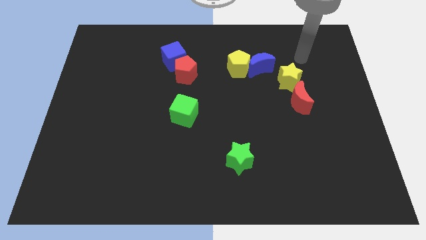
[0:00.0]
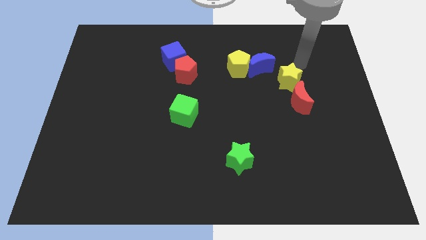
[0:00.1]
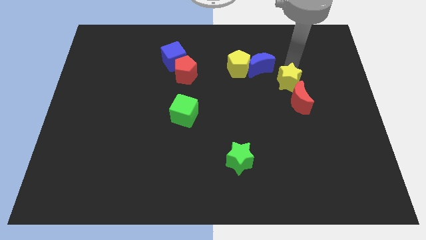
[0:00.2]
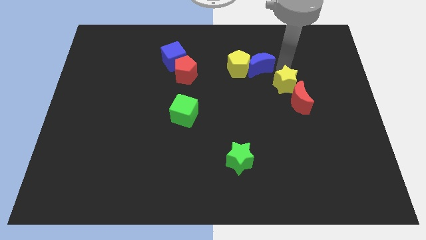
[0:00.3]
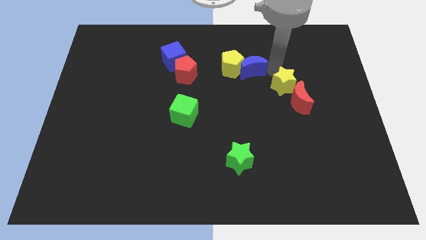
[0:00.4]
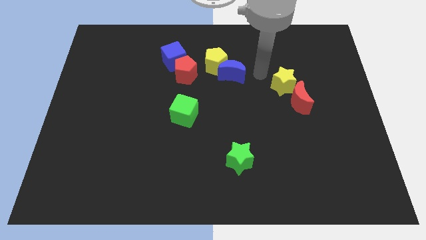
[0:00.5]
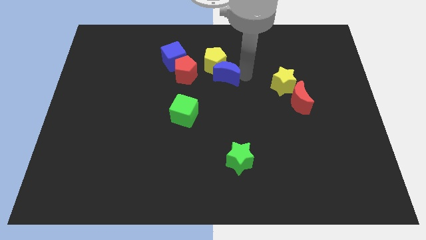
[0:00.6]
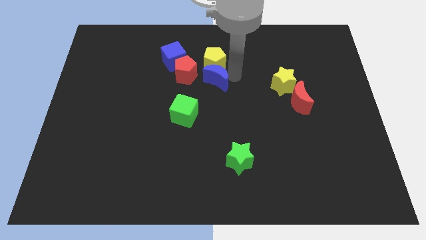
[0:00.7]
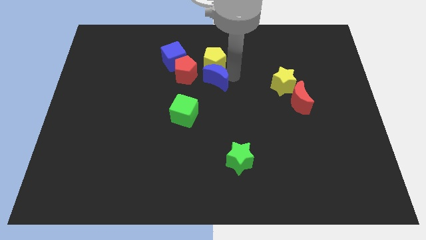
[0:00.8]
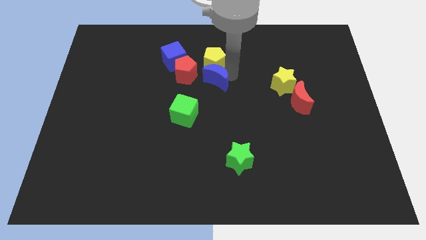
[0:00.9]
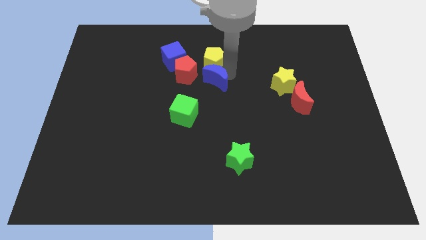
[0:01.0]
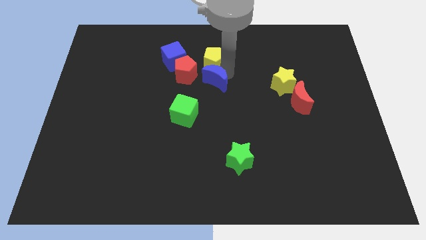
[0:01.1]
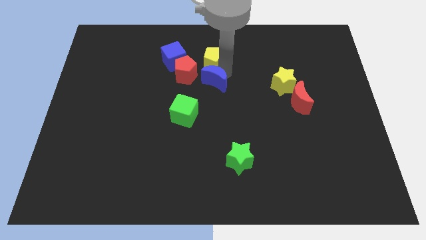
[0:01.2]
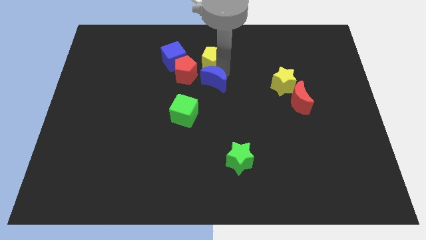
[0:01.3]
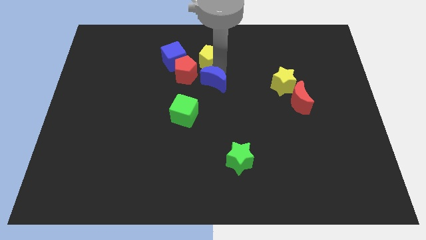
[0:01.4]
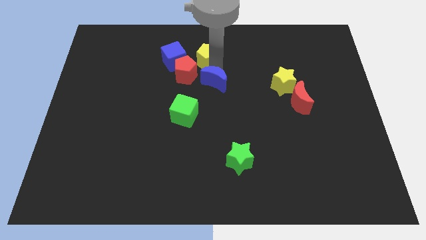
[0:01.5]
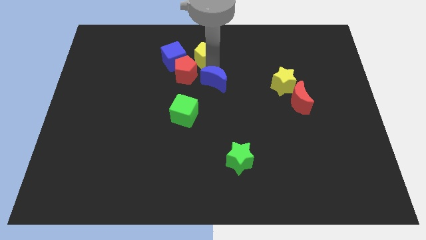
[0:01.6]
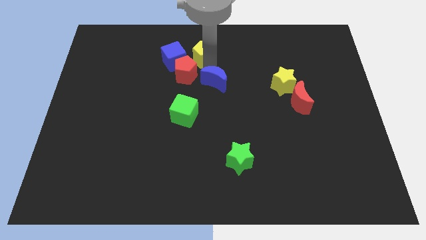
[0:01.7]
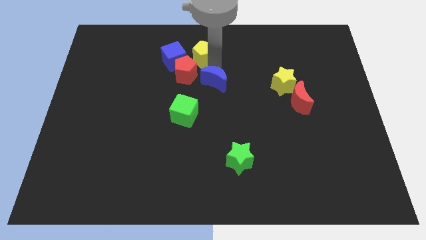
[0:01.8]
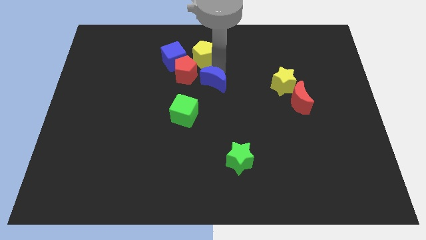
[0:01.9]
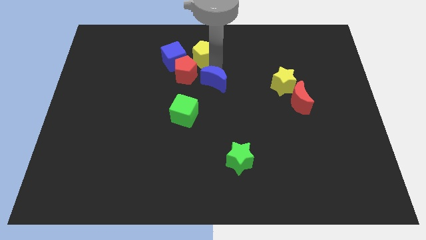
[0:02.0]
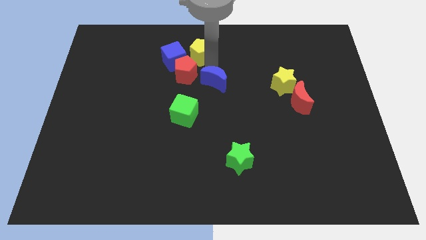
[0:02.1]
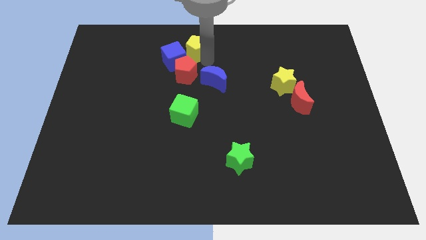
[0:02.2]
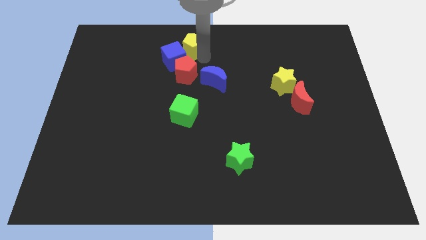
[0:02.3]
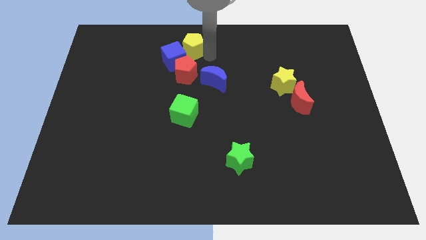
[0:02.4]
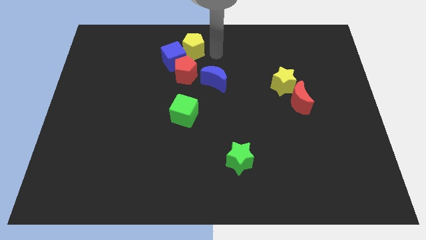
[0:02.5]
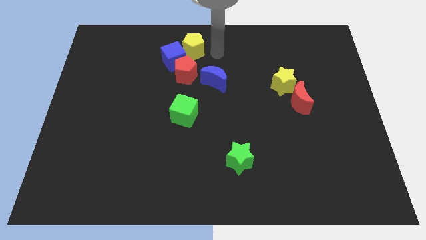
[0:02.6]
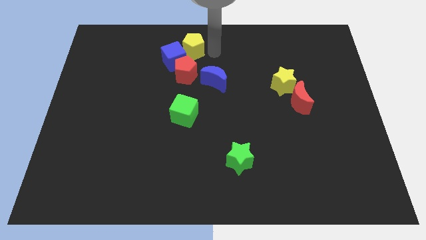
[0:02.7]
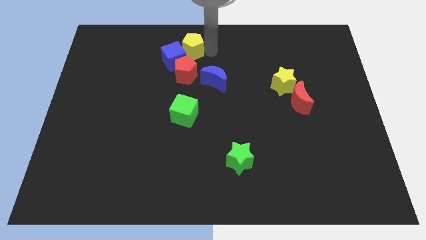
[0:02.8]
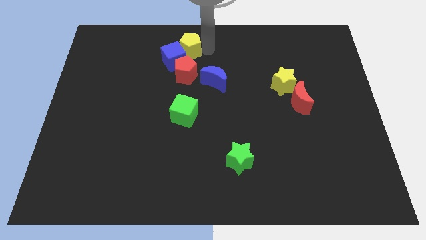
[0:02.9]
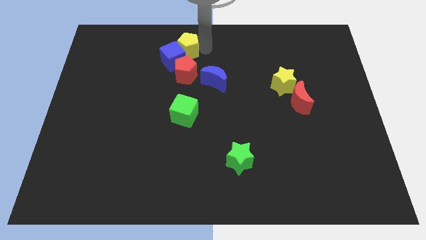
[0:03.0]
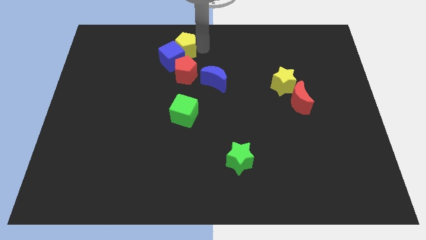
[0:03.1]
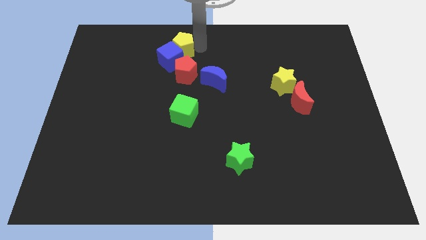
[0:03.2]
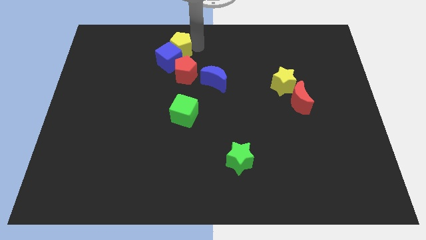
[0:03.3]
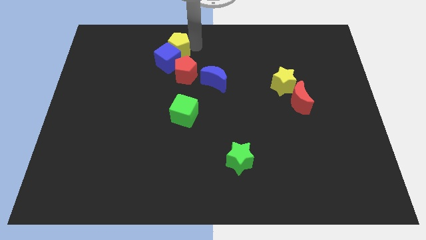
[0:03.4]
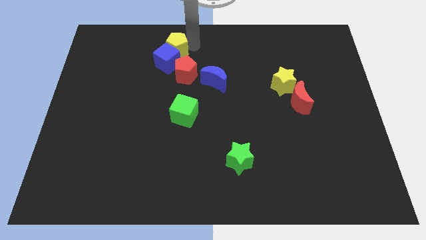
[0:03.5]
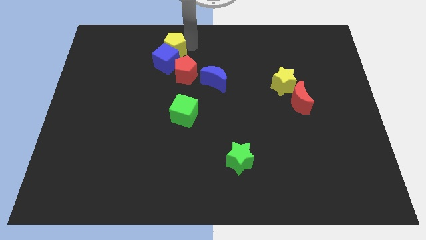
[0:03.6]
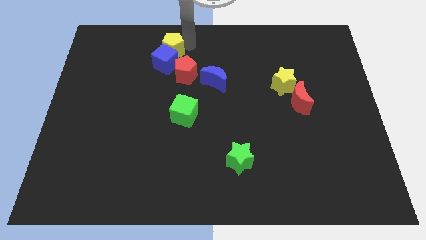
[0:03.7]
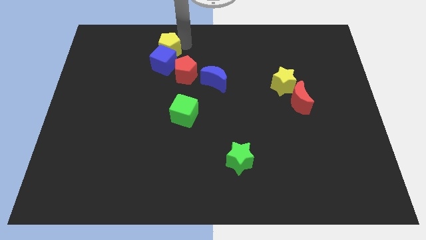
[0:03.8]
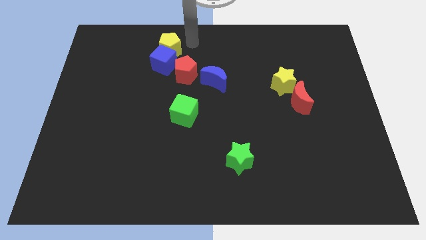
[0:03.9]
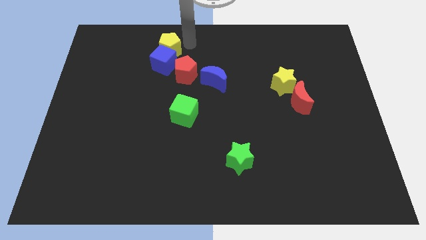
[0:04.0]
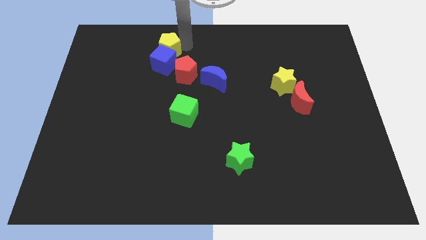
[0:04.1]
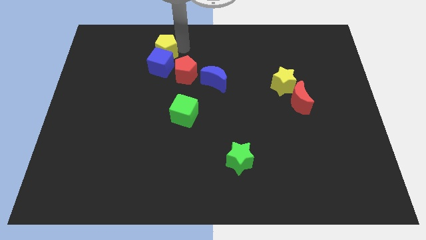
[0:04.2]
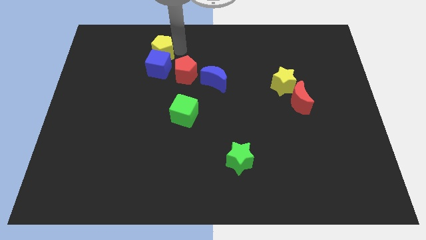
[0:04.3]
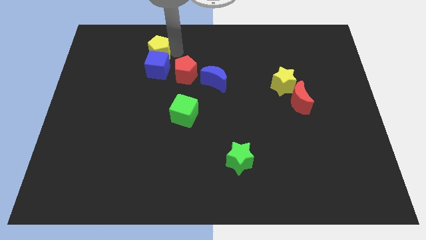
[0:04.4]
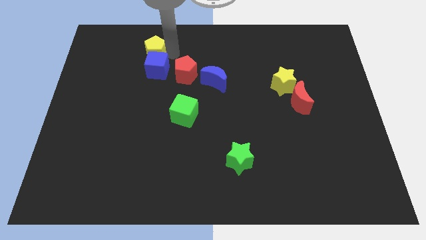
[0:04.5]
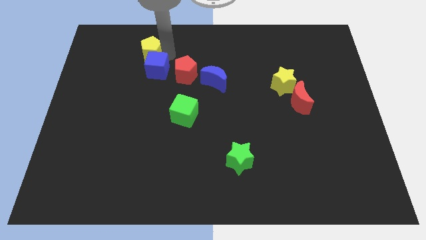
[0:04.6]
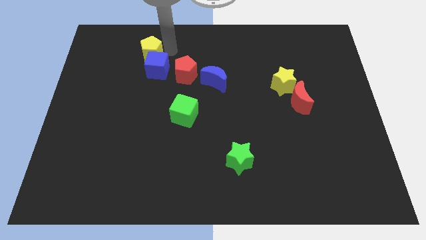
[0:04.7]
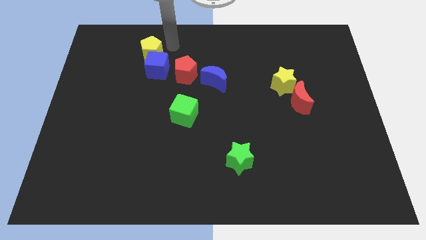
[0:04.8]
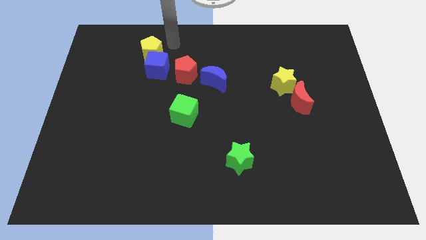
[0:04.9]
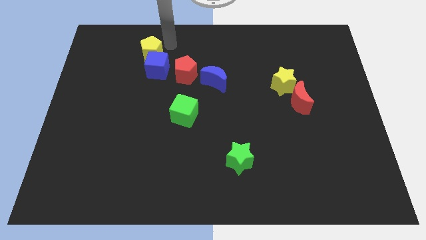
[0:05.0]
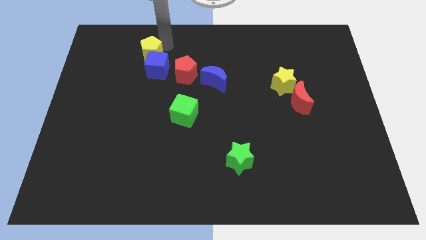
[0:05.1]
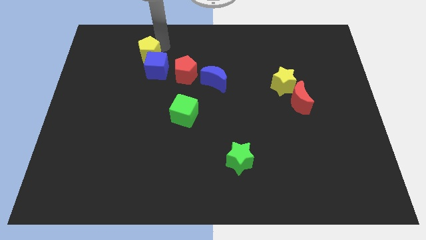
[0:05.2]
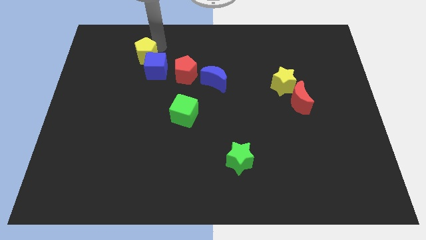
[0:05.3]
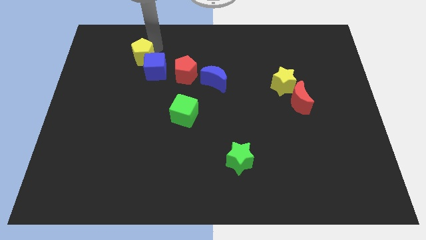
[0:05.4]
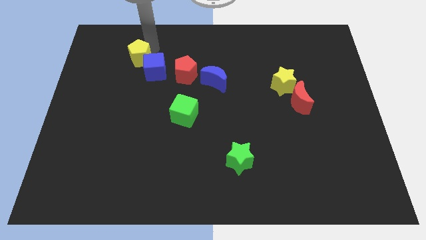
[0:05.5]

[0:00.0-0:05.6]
slide the yellow pentagon left of the blue cube

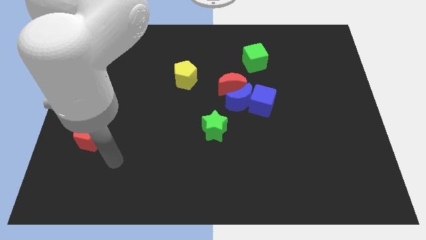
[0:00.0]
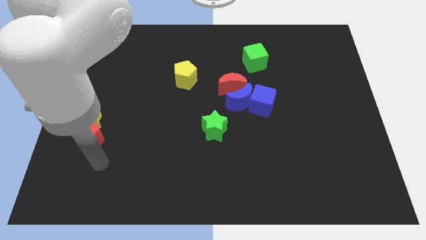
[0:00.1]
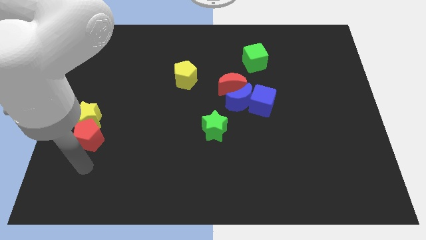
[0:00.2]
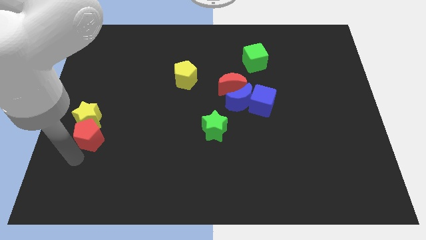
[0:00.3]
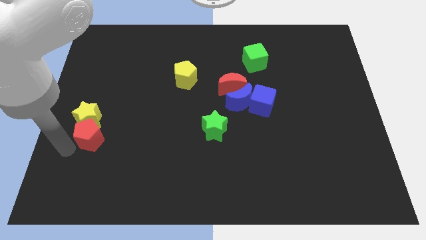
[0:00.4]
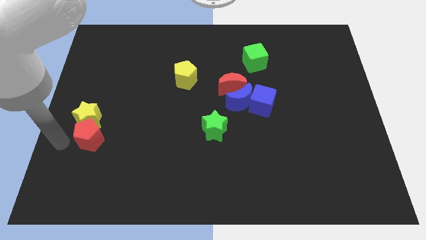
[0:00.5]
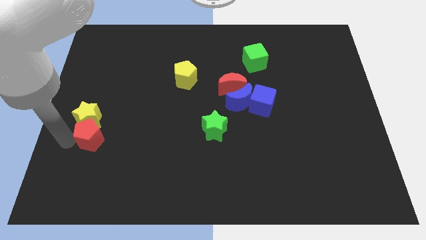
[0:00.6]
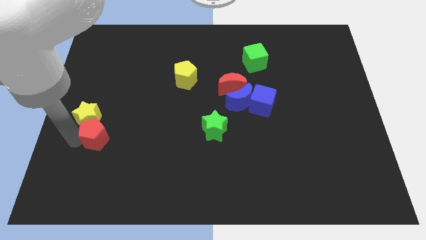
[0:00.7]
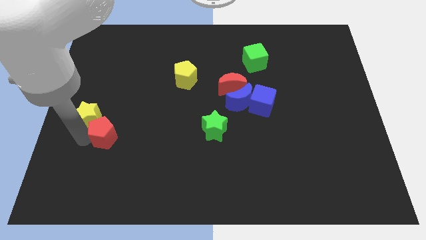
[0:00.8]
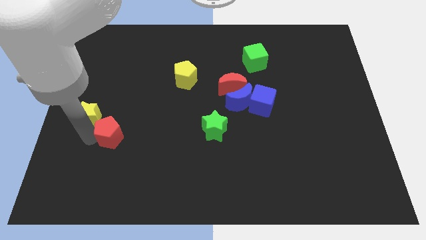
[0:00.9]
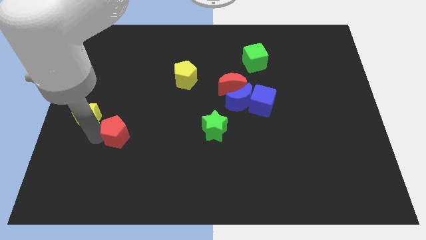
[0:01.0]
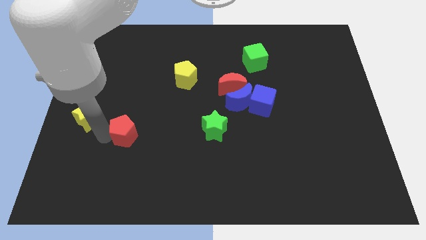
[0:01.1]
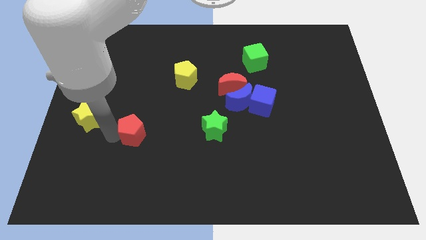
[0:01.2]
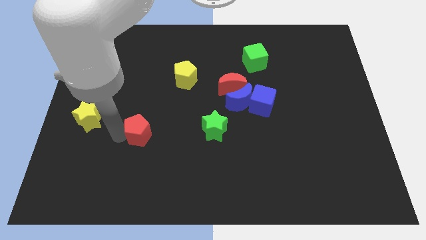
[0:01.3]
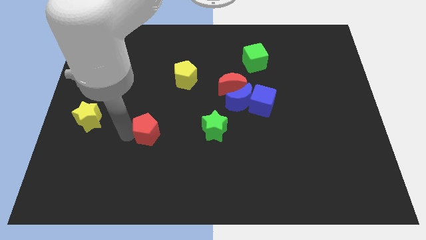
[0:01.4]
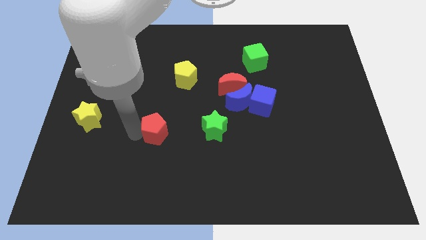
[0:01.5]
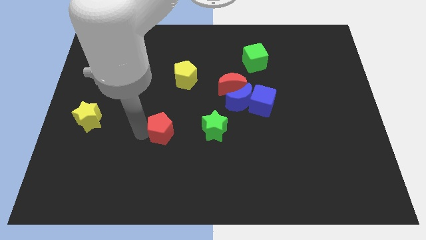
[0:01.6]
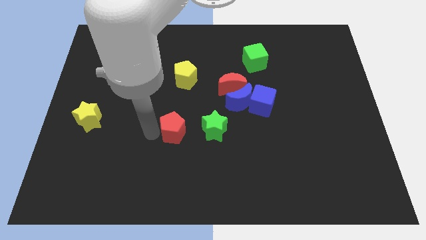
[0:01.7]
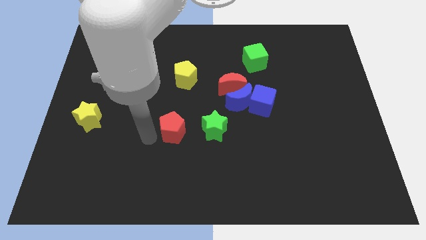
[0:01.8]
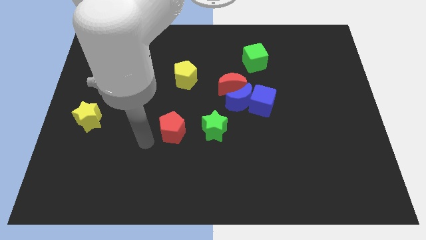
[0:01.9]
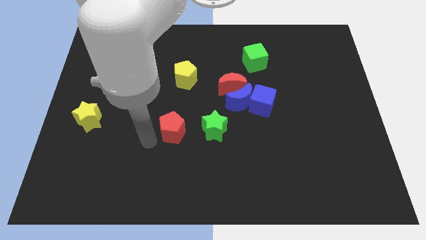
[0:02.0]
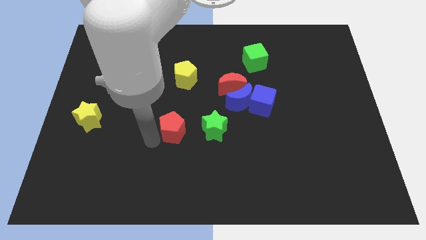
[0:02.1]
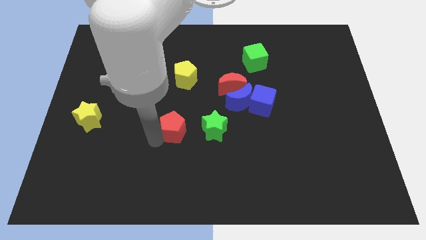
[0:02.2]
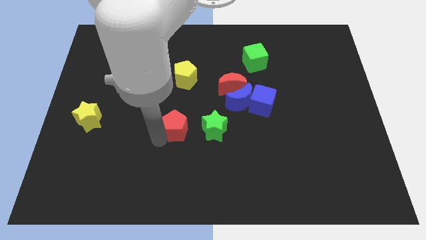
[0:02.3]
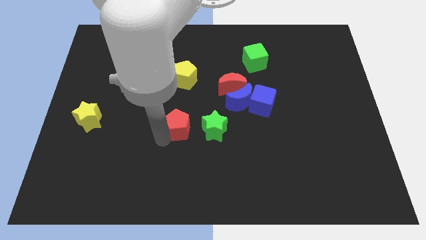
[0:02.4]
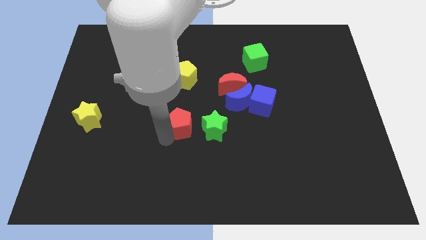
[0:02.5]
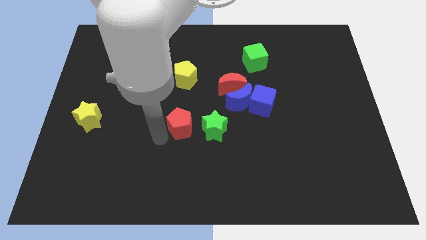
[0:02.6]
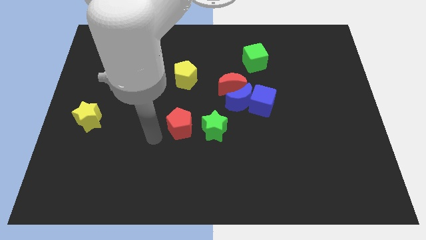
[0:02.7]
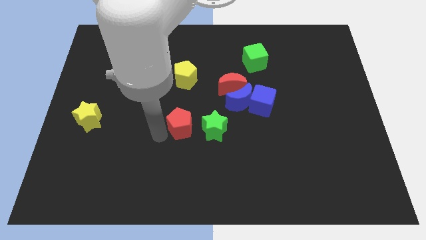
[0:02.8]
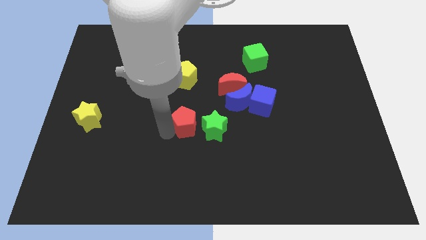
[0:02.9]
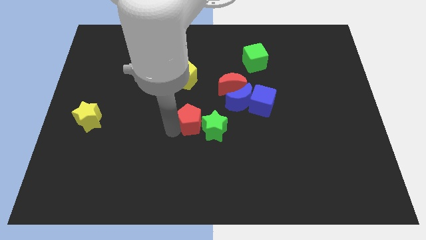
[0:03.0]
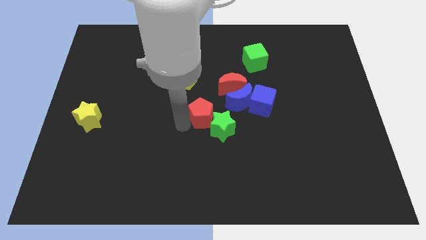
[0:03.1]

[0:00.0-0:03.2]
put the red pentagon left of the blue cube
